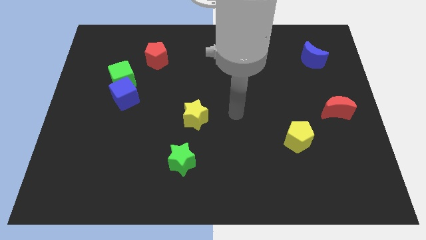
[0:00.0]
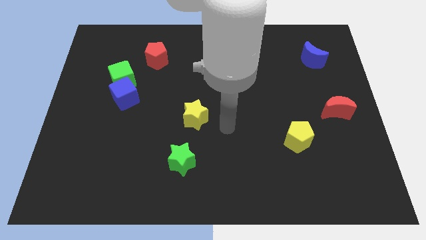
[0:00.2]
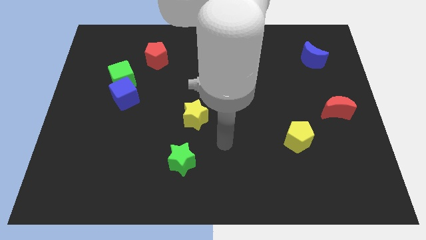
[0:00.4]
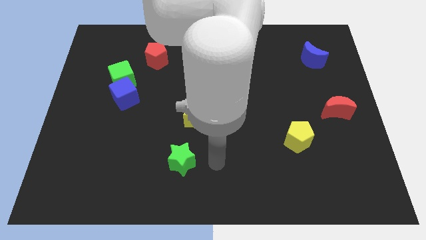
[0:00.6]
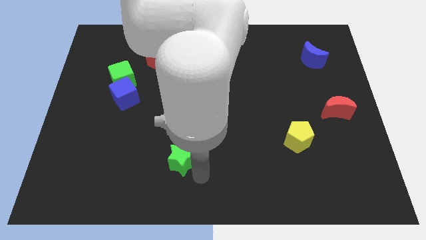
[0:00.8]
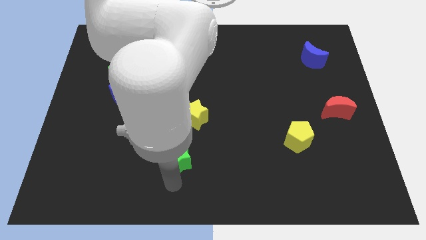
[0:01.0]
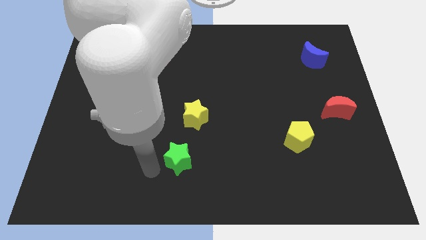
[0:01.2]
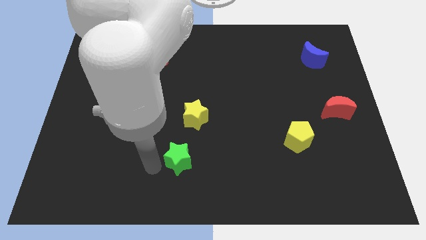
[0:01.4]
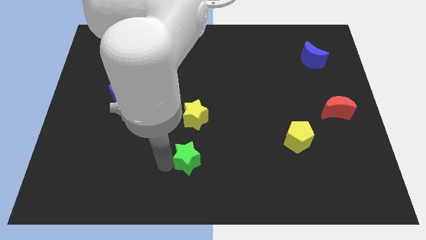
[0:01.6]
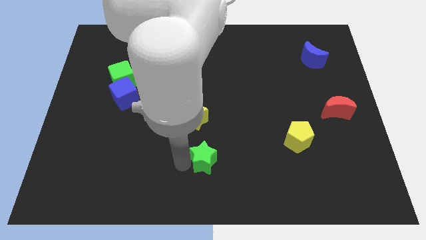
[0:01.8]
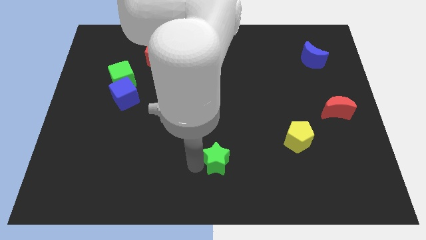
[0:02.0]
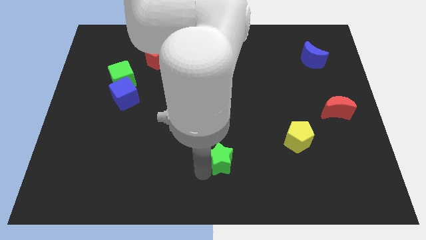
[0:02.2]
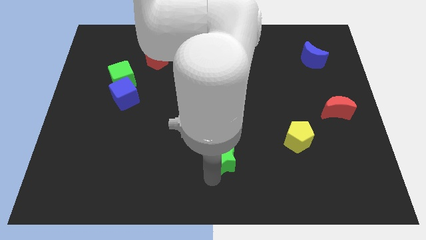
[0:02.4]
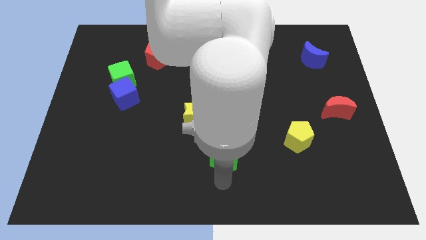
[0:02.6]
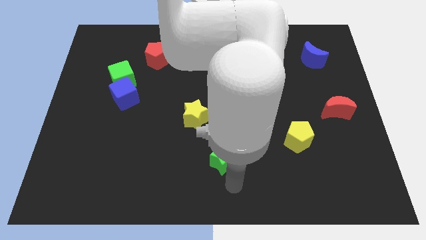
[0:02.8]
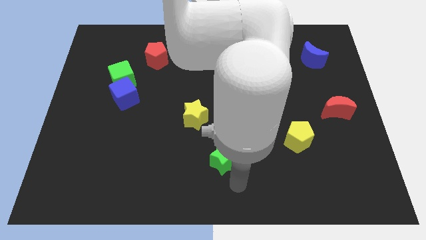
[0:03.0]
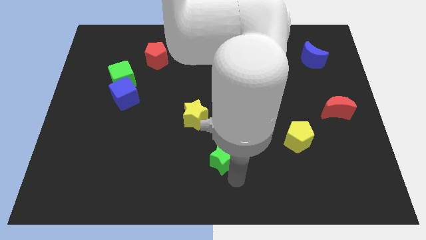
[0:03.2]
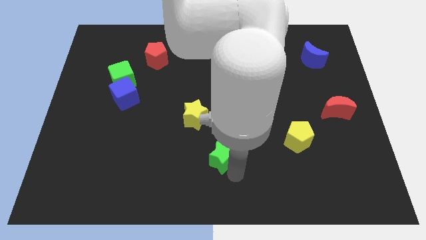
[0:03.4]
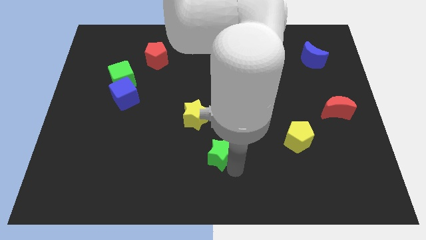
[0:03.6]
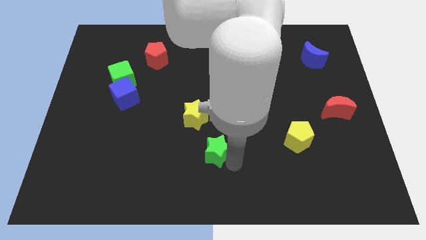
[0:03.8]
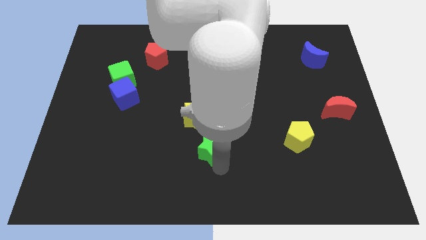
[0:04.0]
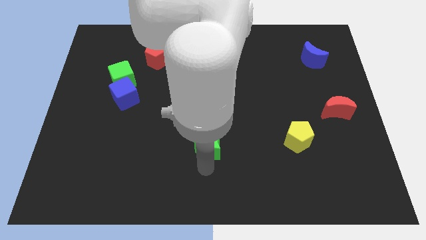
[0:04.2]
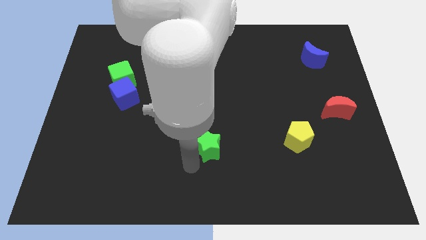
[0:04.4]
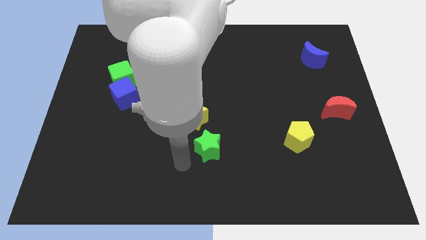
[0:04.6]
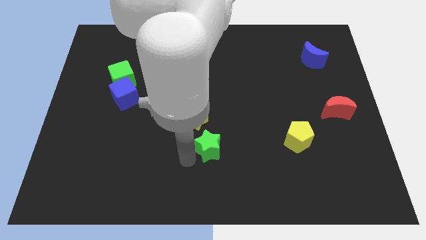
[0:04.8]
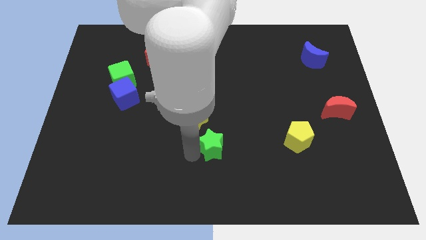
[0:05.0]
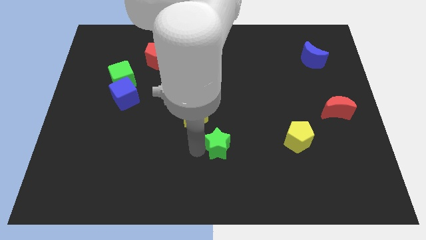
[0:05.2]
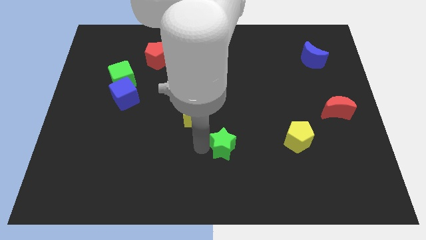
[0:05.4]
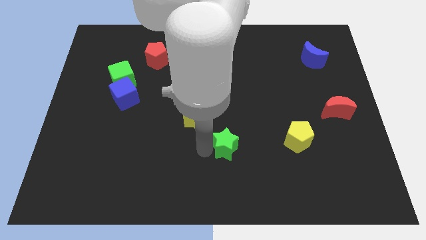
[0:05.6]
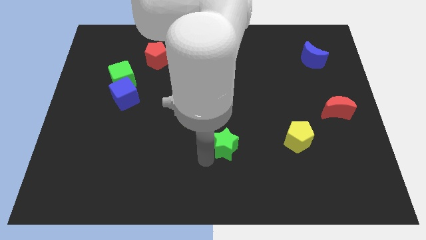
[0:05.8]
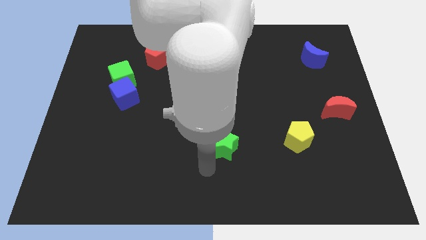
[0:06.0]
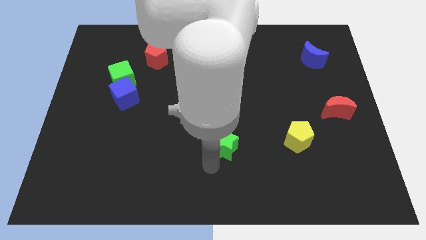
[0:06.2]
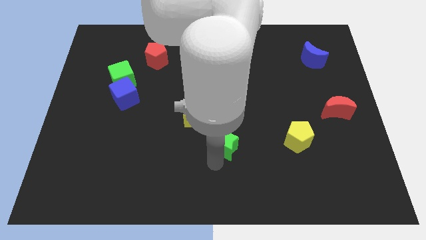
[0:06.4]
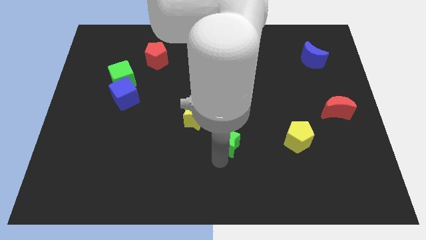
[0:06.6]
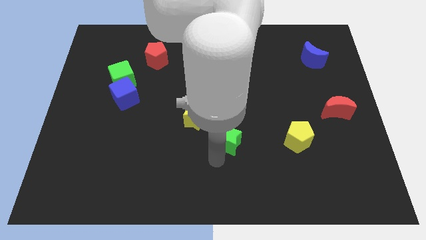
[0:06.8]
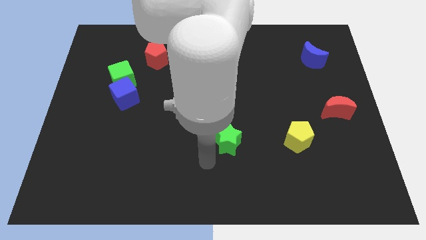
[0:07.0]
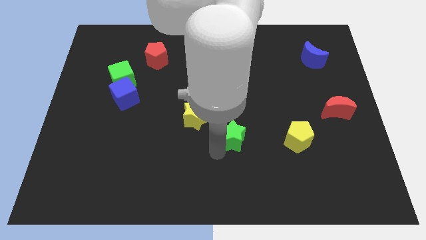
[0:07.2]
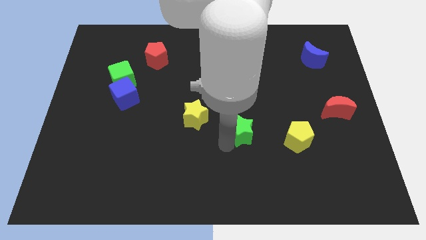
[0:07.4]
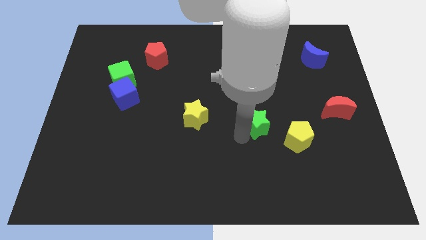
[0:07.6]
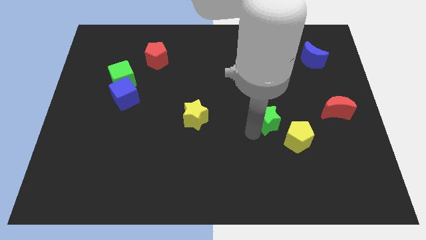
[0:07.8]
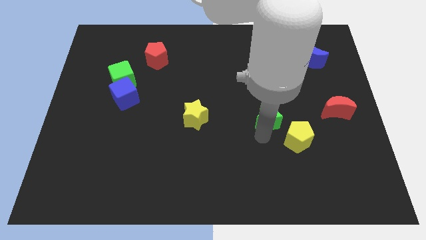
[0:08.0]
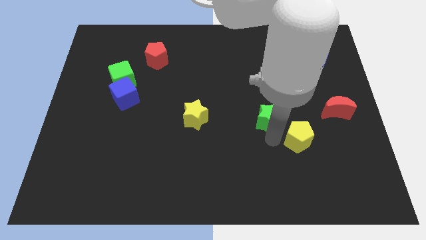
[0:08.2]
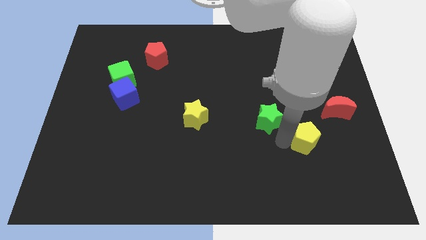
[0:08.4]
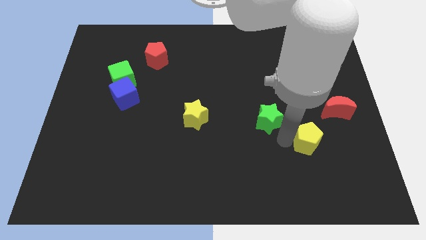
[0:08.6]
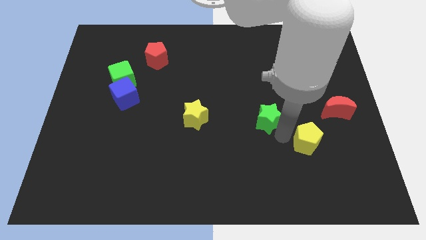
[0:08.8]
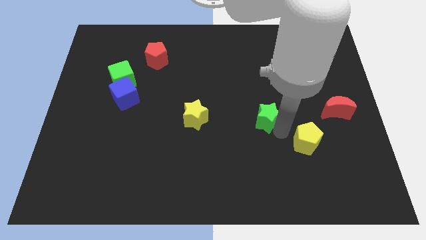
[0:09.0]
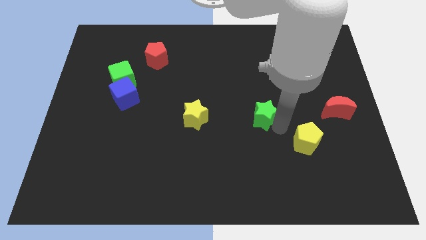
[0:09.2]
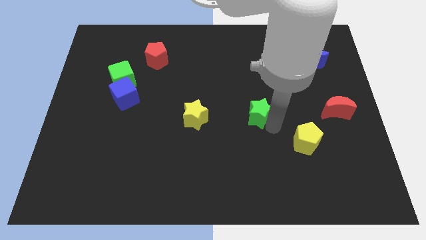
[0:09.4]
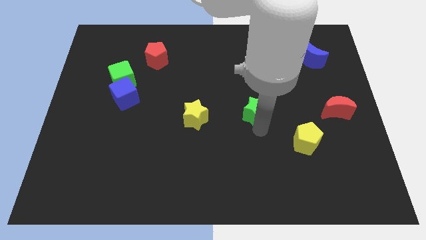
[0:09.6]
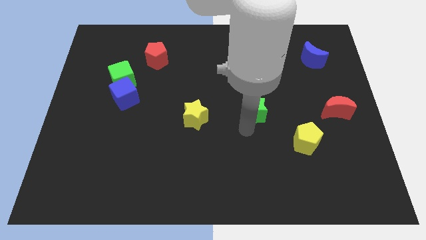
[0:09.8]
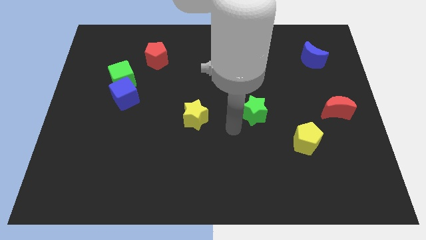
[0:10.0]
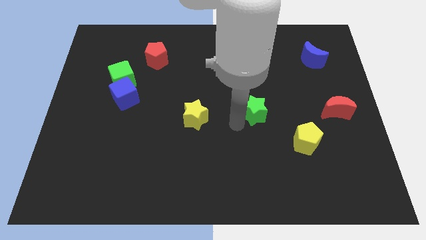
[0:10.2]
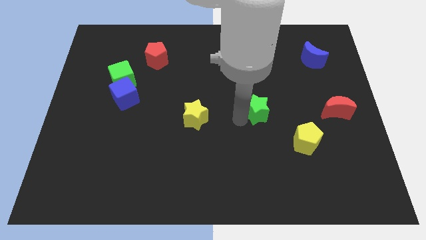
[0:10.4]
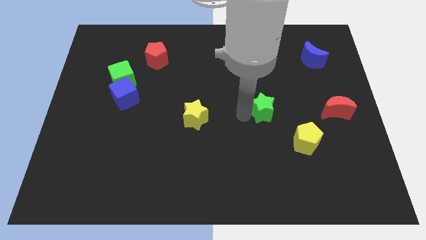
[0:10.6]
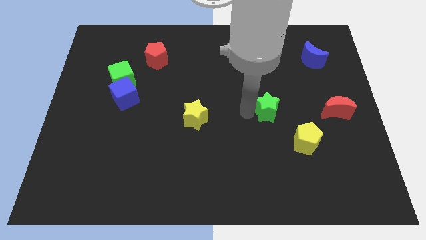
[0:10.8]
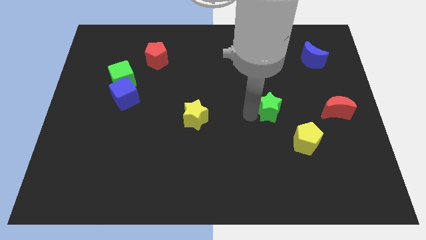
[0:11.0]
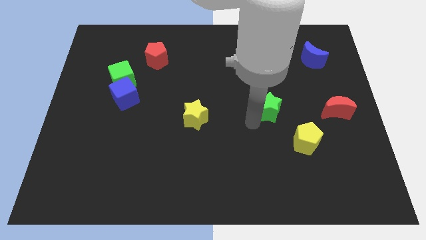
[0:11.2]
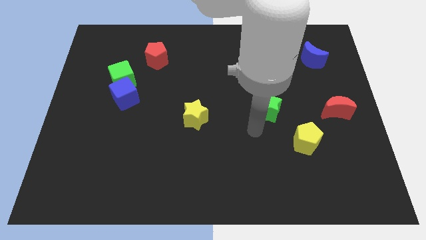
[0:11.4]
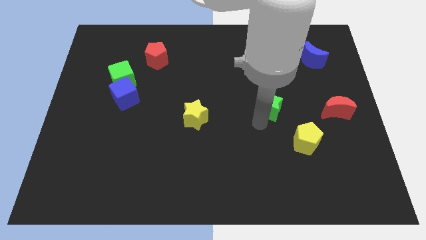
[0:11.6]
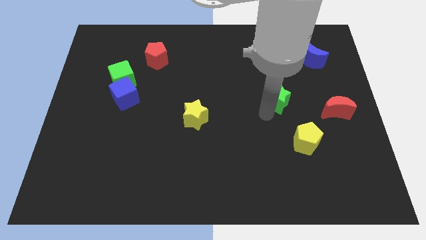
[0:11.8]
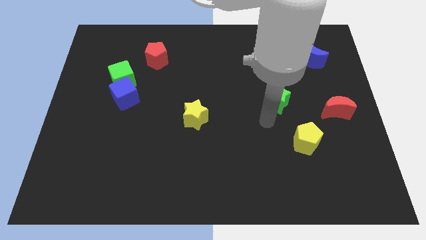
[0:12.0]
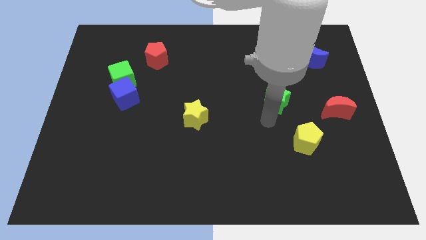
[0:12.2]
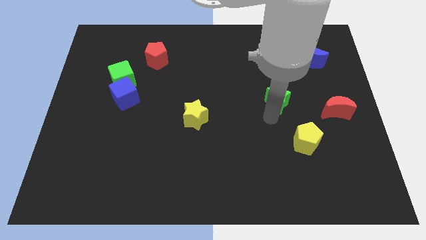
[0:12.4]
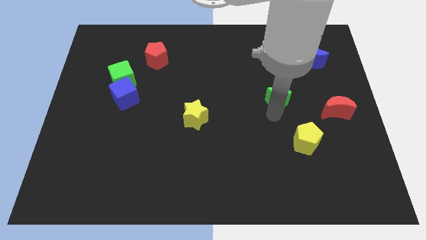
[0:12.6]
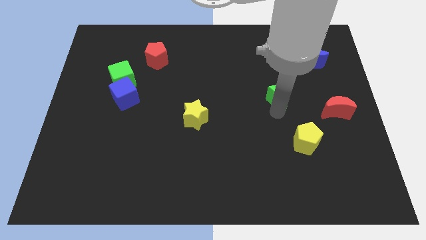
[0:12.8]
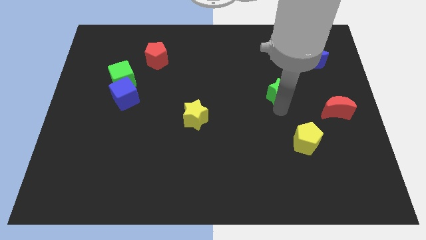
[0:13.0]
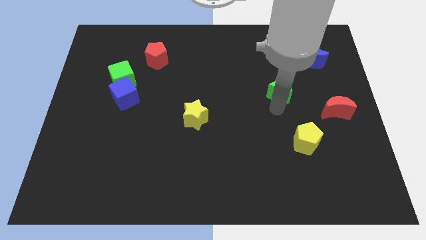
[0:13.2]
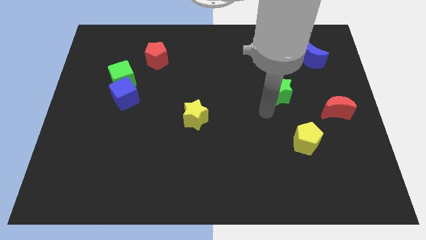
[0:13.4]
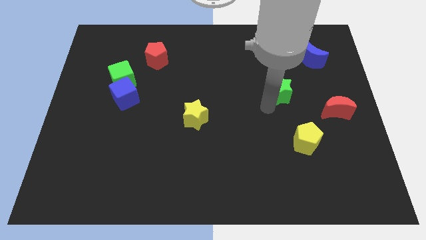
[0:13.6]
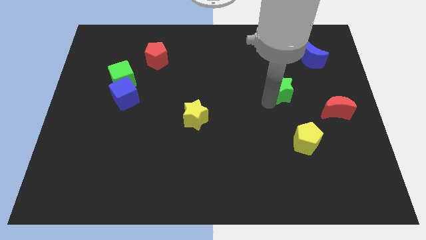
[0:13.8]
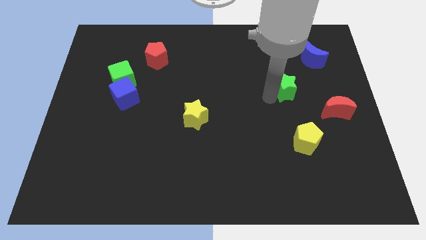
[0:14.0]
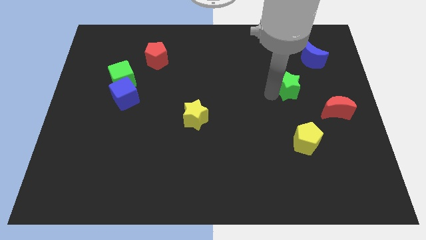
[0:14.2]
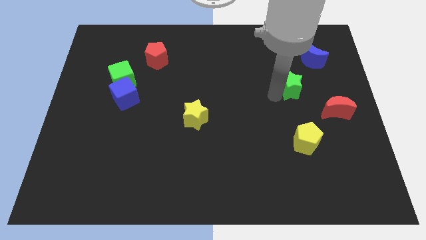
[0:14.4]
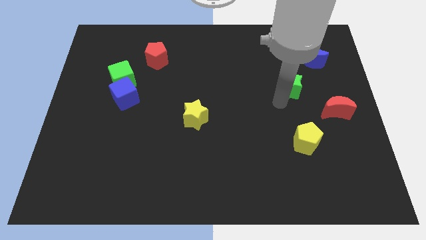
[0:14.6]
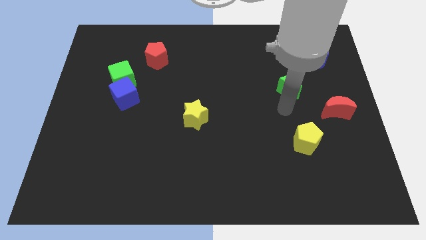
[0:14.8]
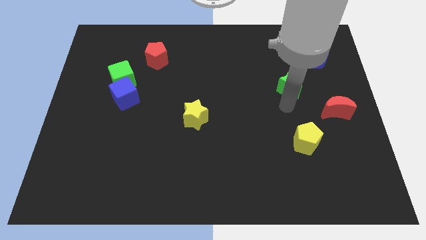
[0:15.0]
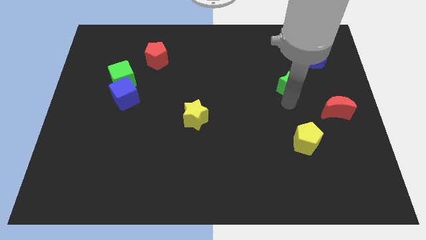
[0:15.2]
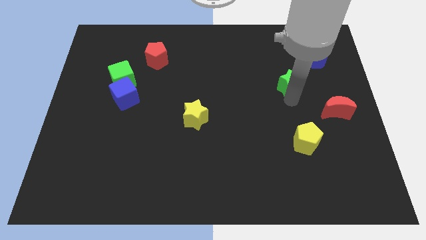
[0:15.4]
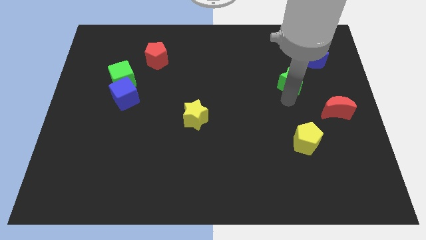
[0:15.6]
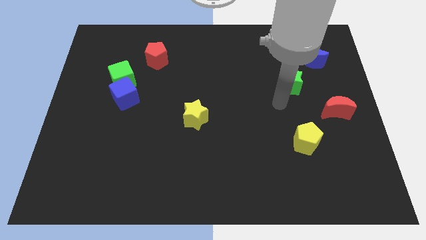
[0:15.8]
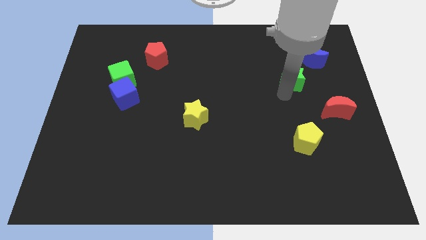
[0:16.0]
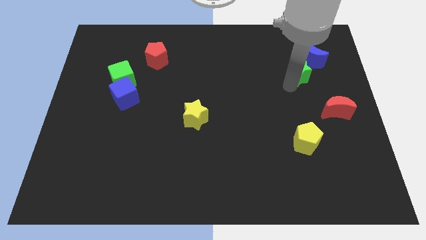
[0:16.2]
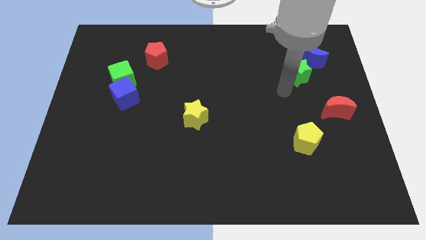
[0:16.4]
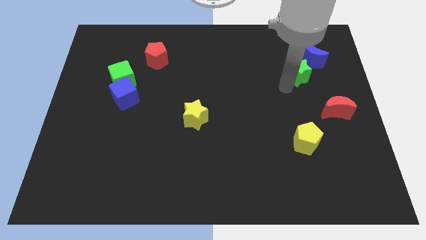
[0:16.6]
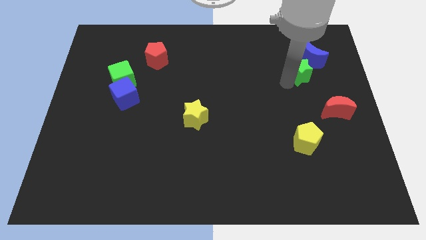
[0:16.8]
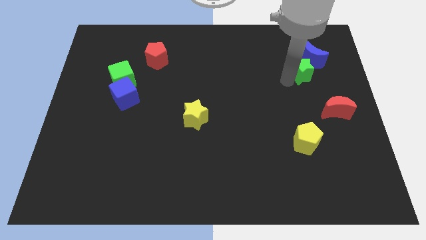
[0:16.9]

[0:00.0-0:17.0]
move the green star next to the blue moon
